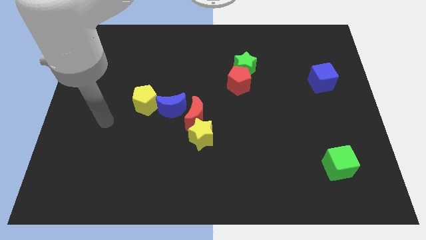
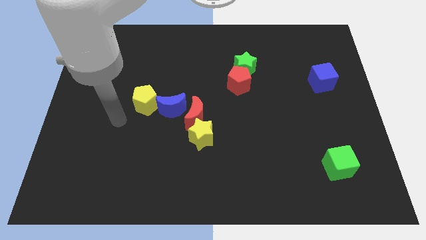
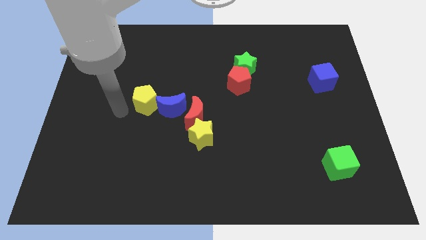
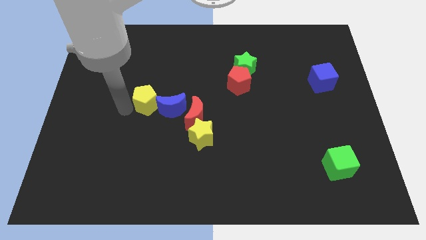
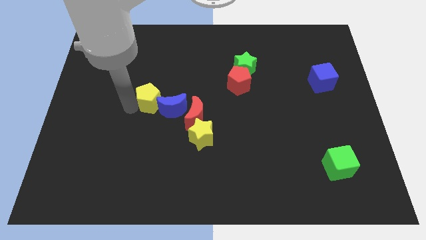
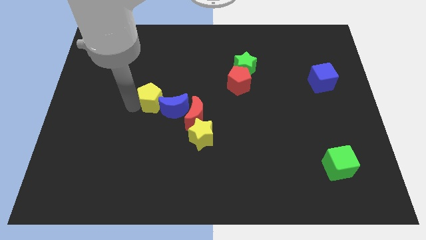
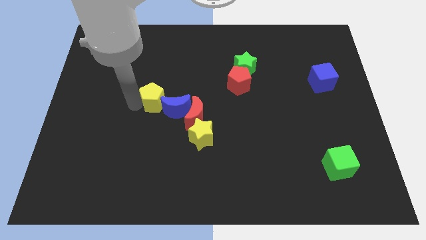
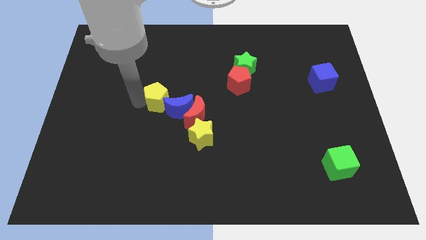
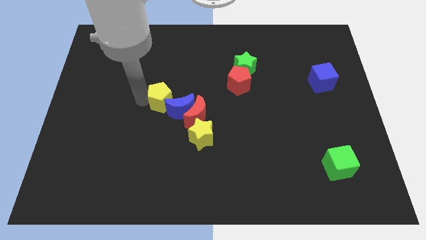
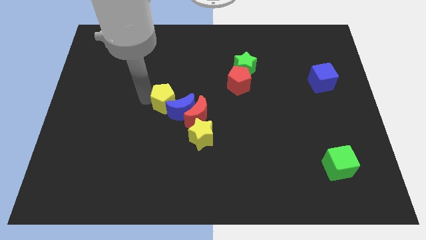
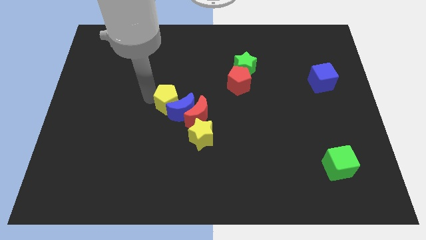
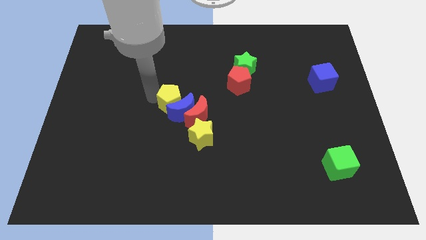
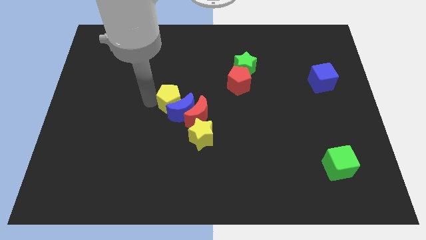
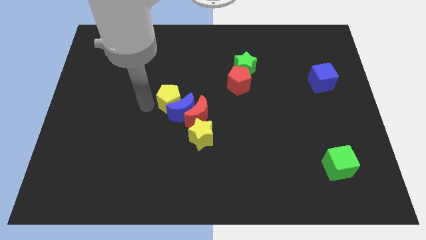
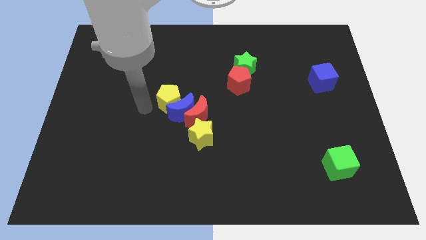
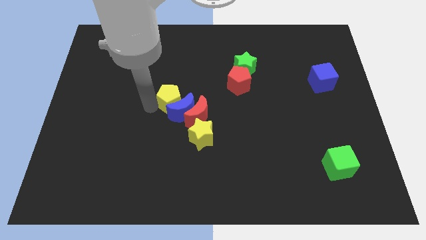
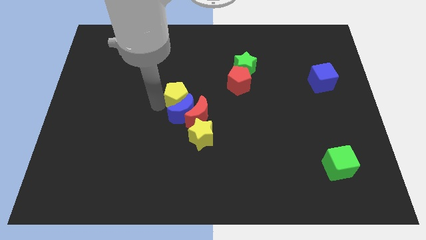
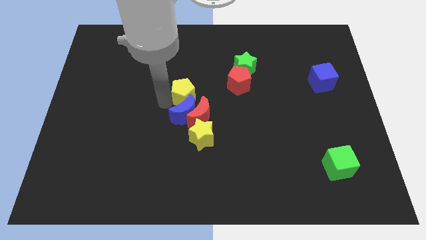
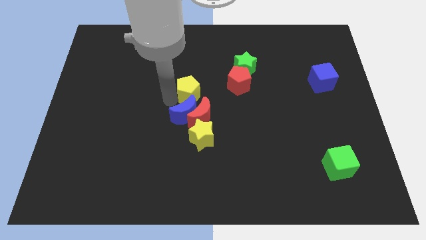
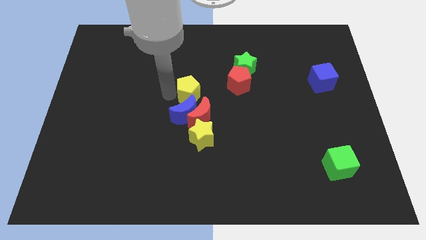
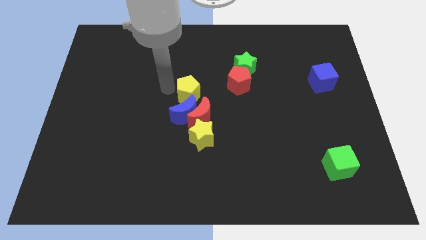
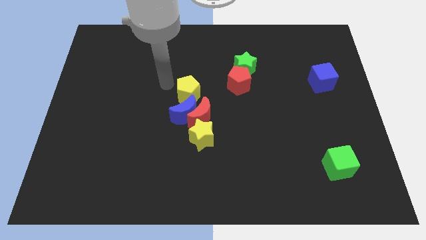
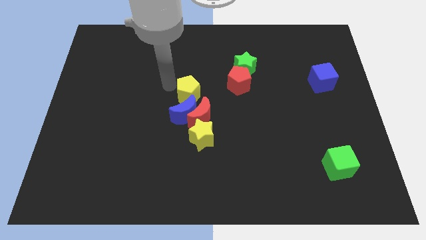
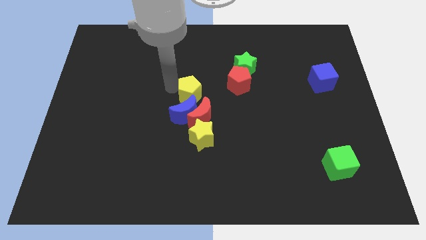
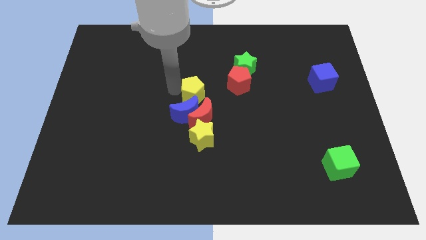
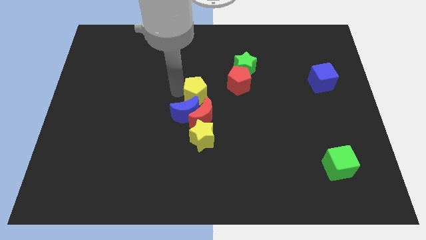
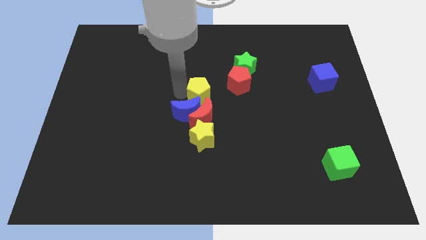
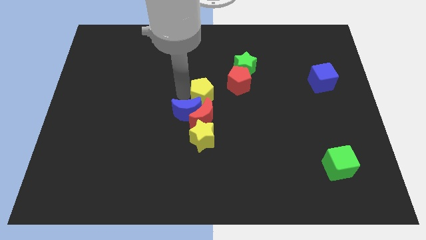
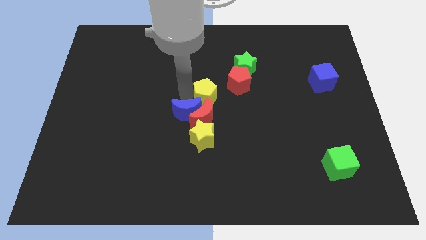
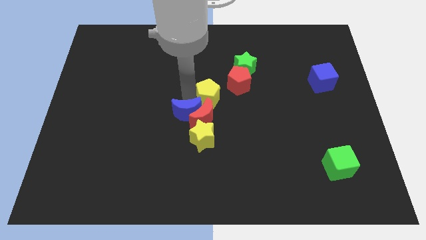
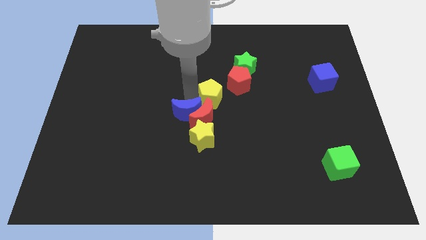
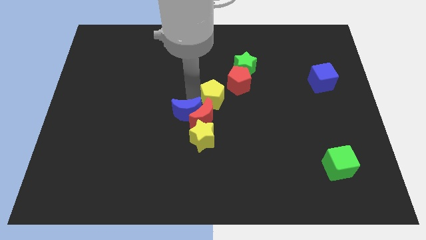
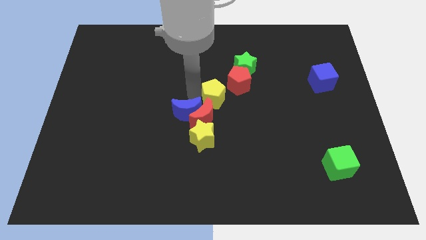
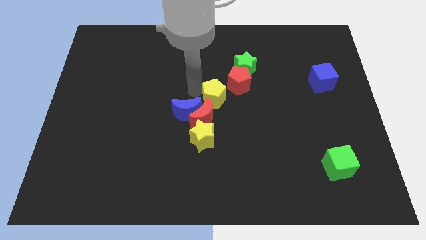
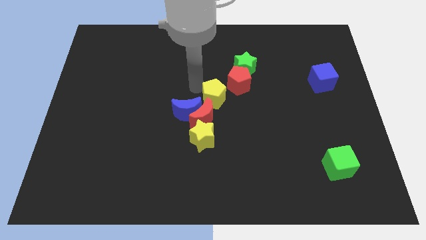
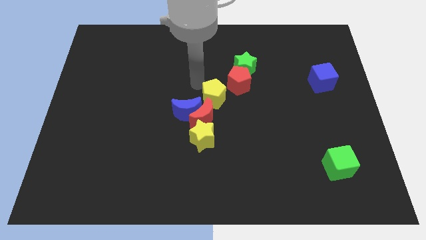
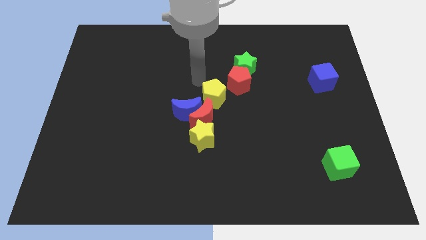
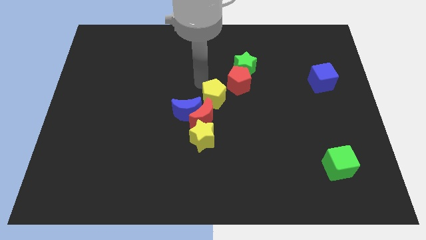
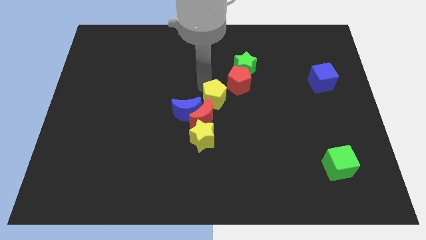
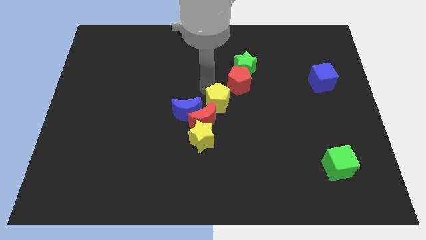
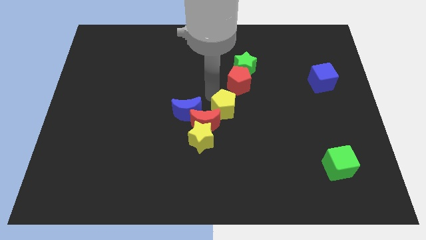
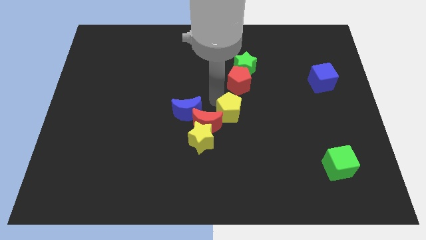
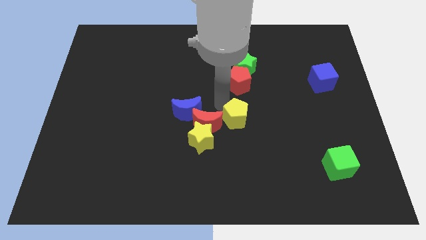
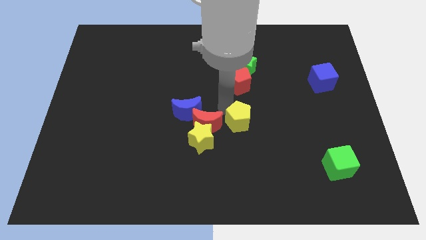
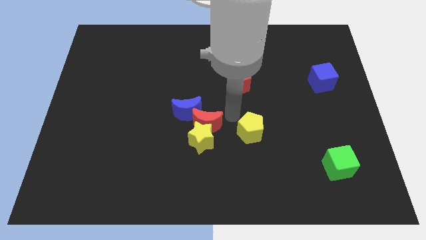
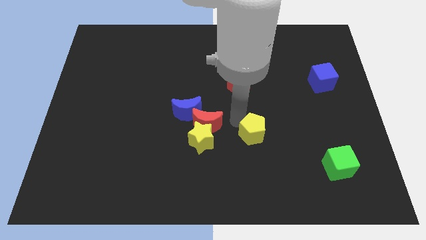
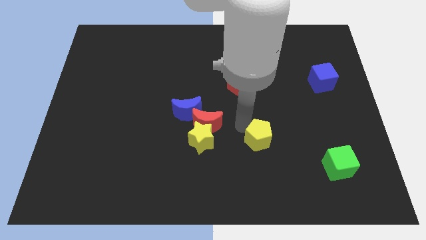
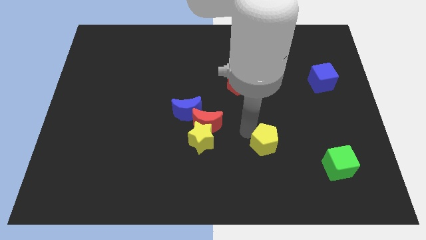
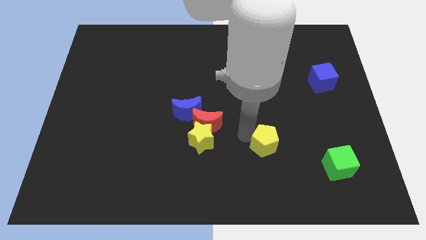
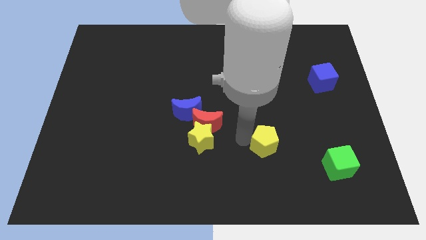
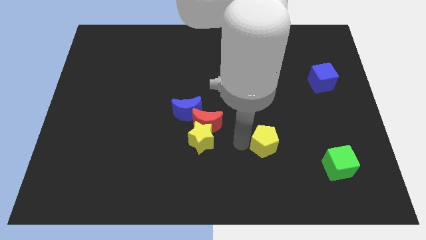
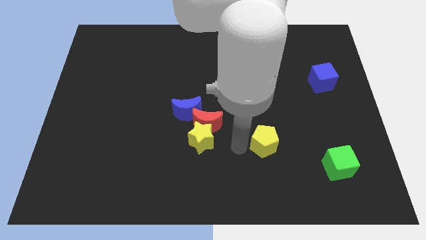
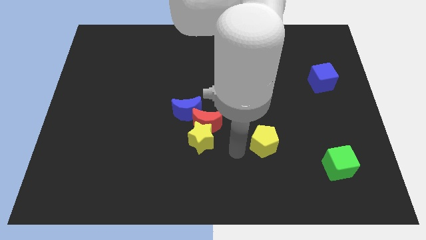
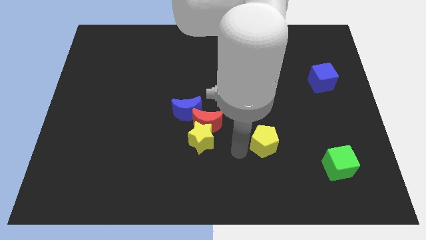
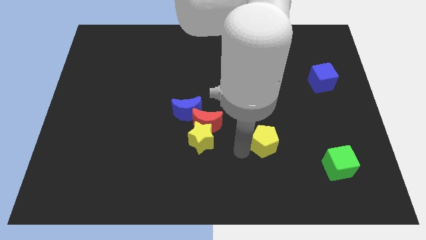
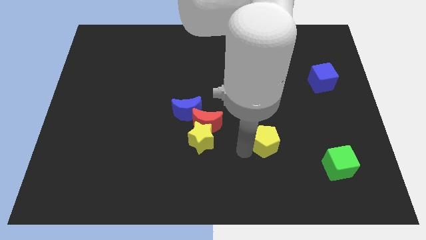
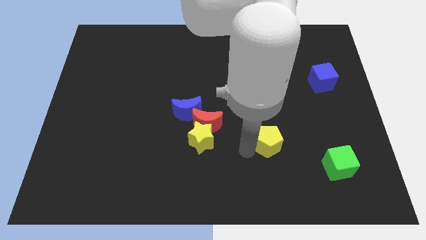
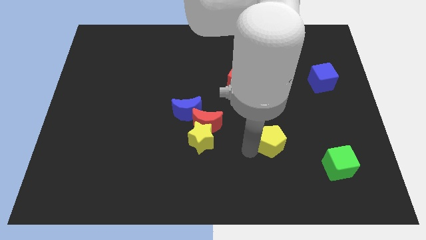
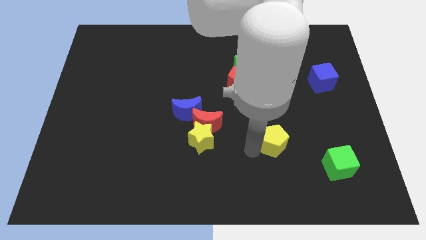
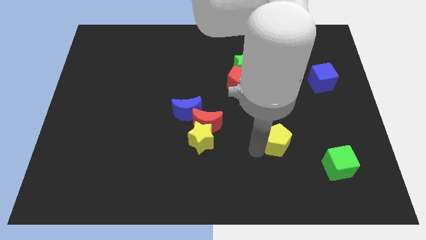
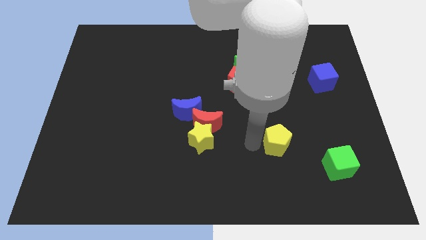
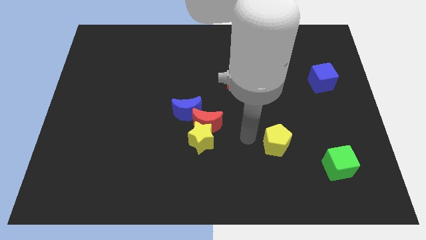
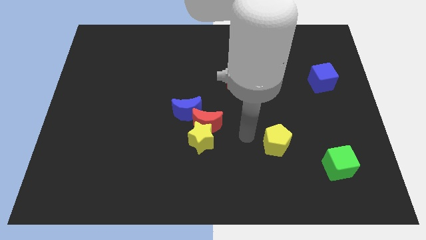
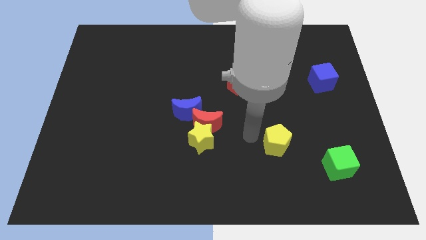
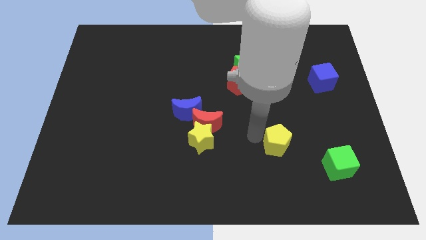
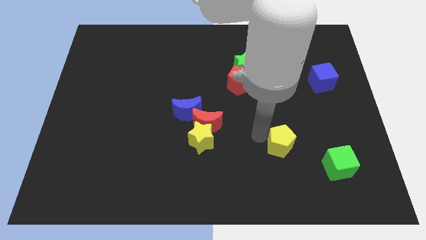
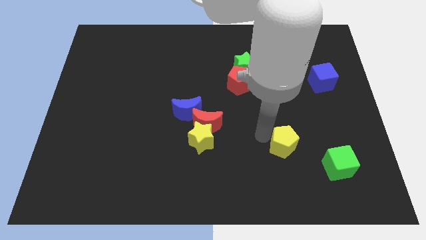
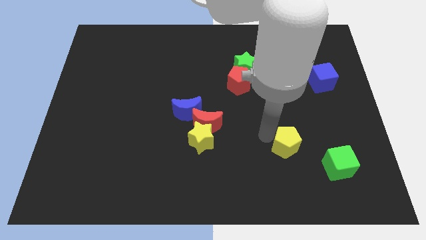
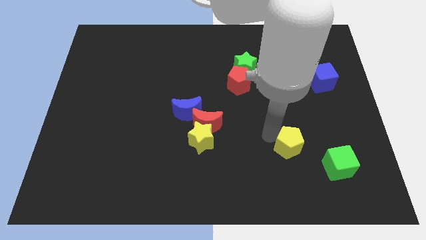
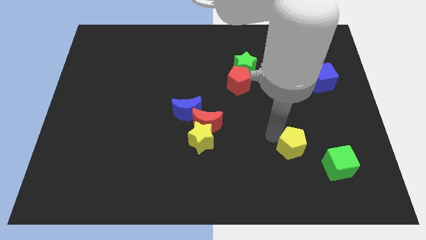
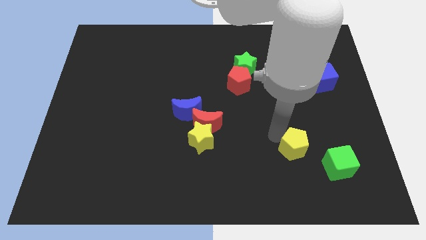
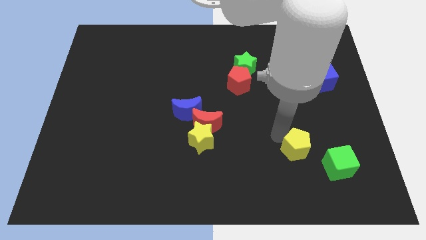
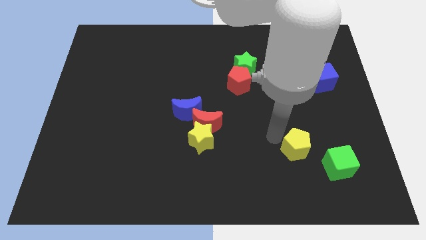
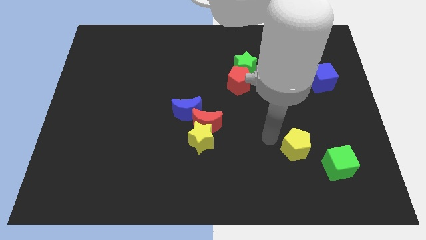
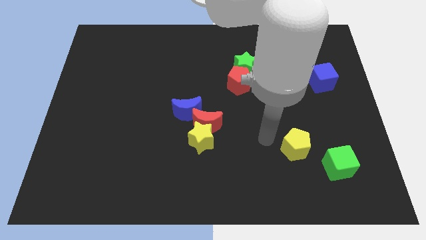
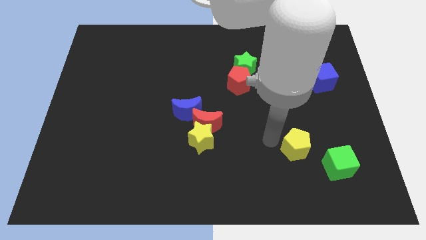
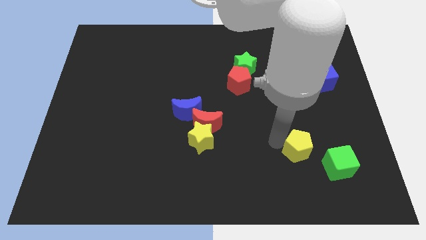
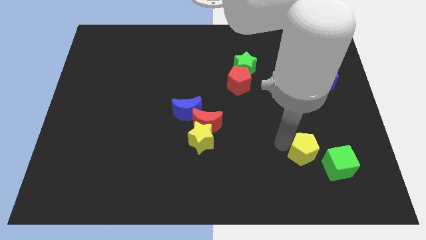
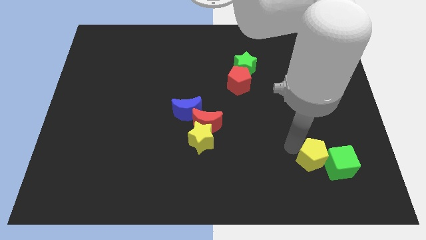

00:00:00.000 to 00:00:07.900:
move the yellow pentagon to the green cube
